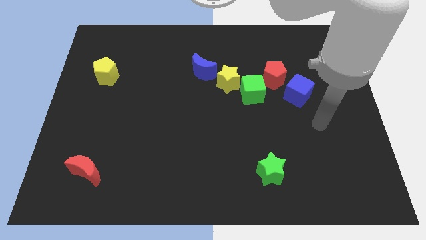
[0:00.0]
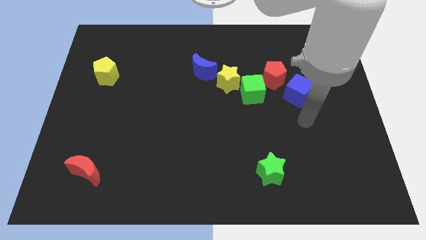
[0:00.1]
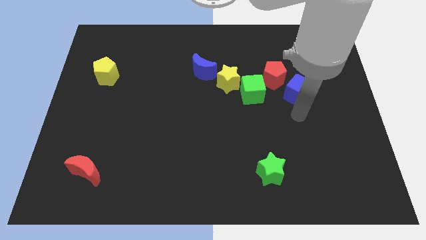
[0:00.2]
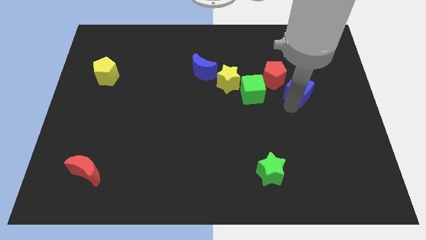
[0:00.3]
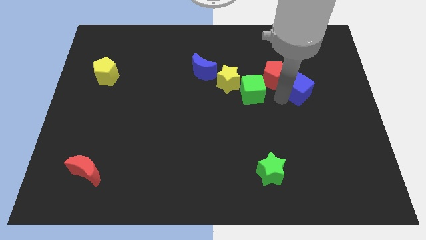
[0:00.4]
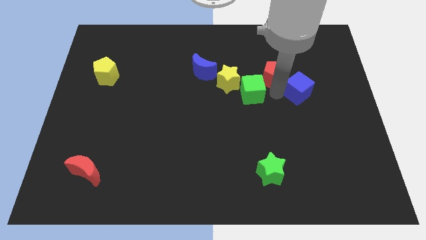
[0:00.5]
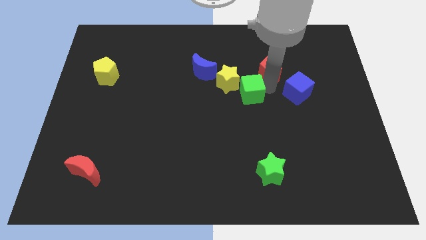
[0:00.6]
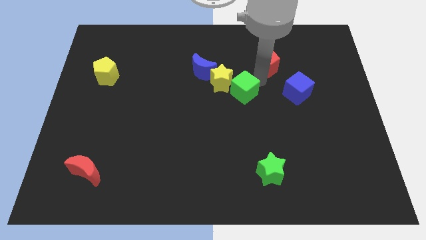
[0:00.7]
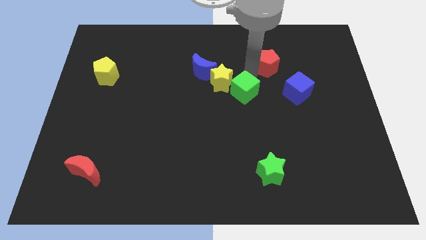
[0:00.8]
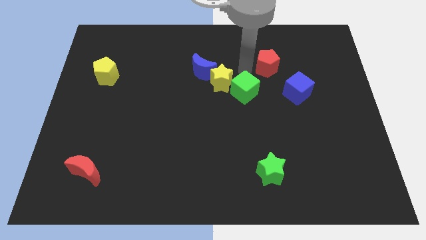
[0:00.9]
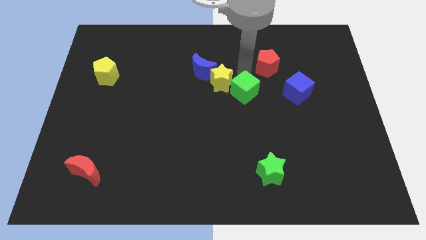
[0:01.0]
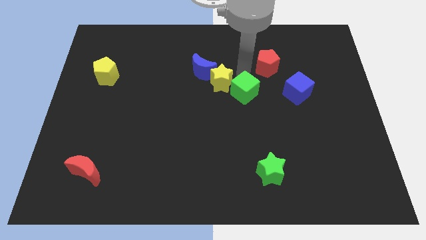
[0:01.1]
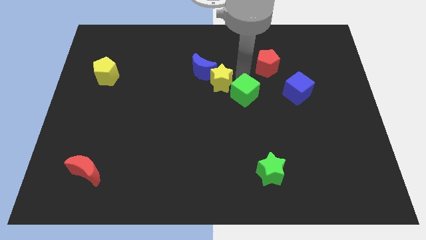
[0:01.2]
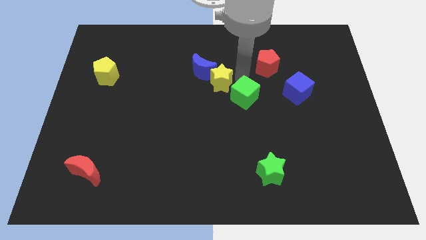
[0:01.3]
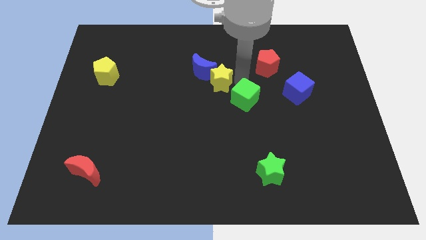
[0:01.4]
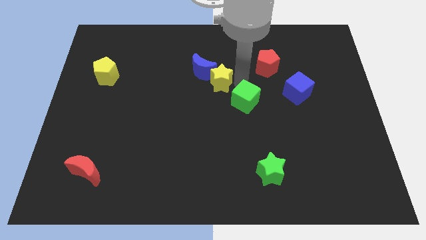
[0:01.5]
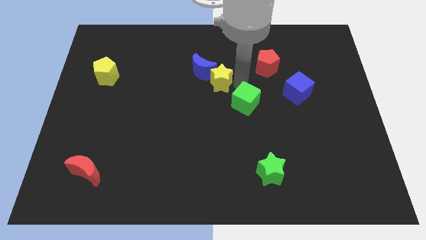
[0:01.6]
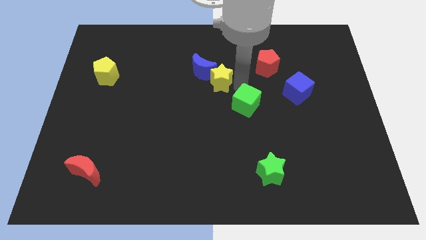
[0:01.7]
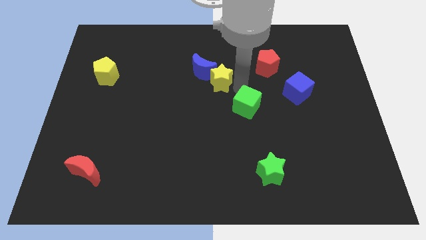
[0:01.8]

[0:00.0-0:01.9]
pull the green cube apart from the yellow star and red pentagon

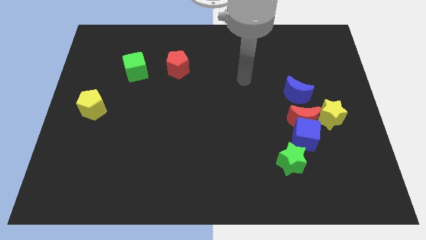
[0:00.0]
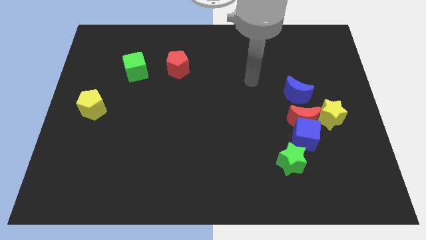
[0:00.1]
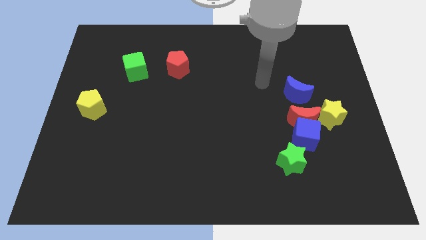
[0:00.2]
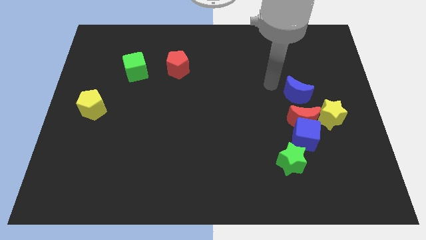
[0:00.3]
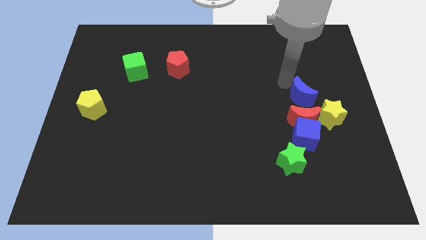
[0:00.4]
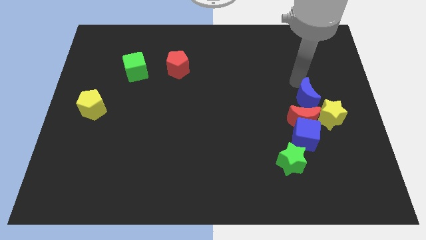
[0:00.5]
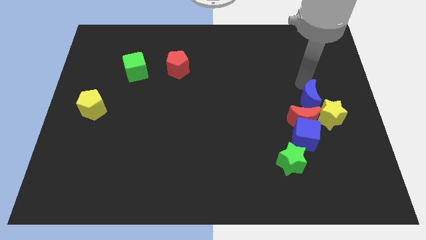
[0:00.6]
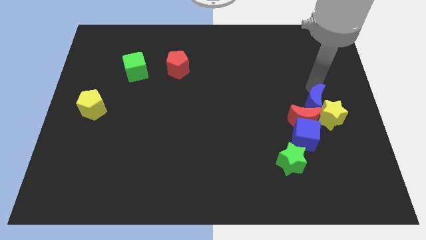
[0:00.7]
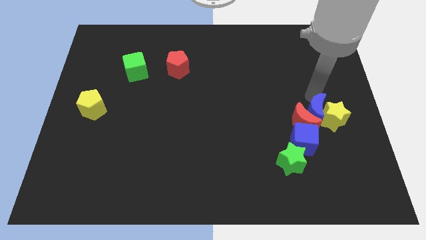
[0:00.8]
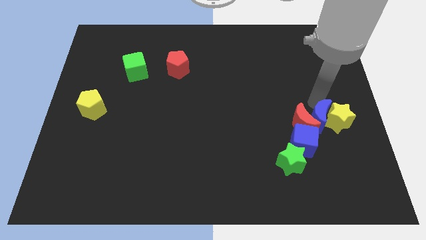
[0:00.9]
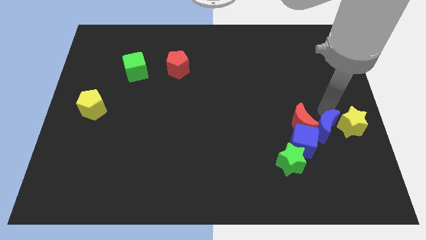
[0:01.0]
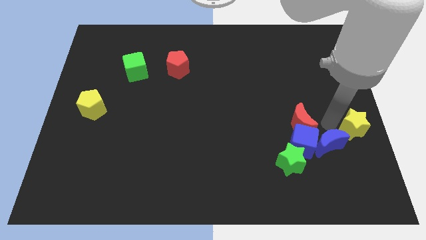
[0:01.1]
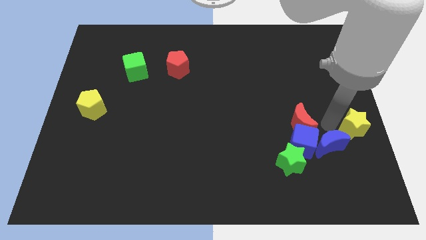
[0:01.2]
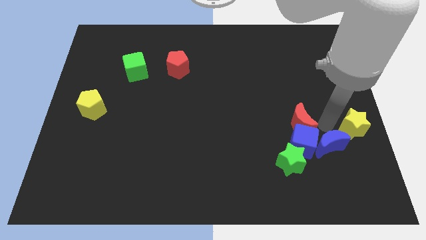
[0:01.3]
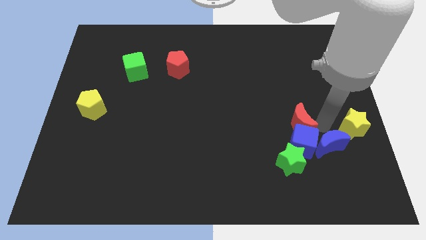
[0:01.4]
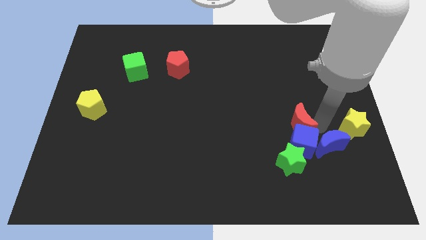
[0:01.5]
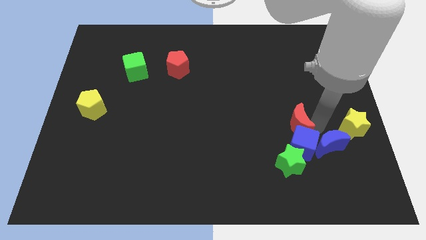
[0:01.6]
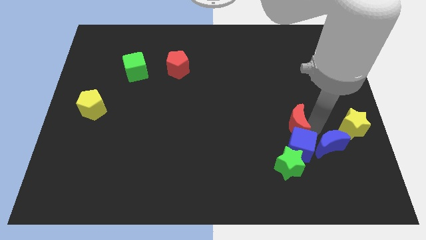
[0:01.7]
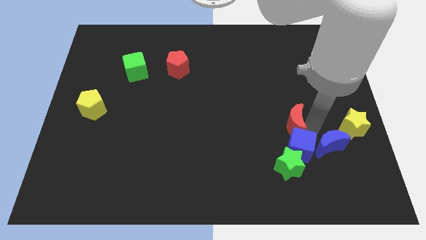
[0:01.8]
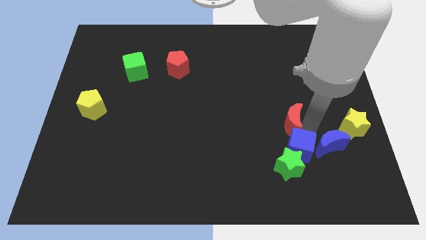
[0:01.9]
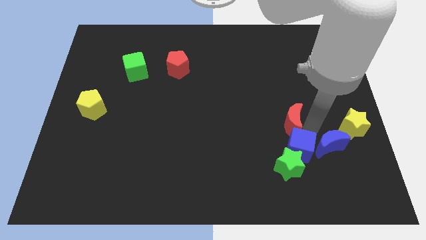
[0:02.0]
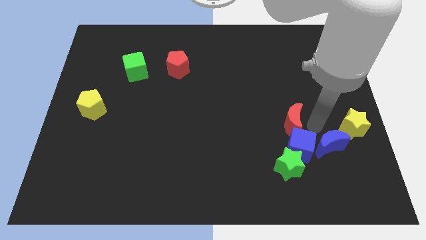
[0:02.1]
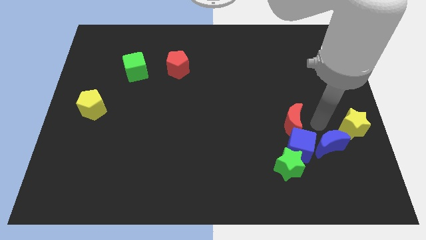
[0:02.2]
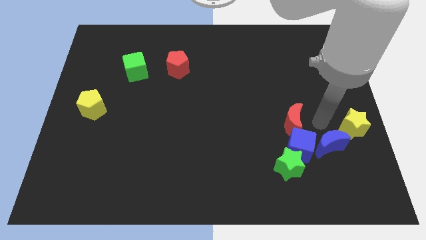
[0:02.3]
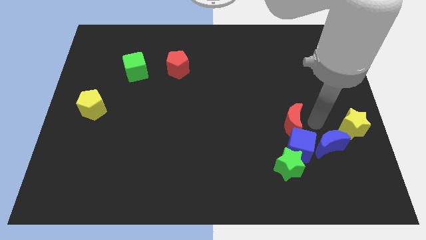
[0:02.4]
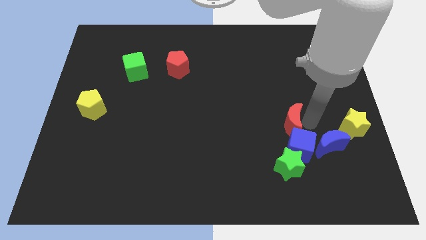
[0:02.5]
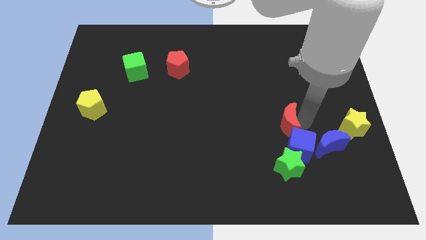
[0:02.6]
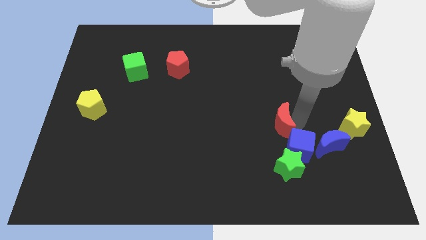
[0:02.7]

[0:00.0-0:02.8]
separate the red moon from the blue cube, yellow star, and blue moon

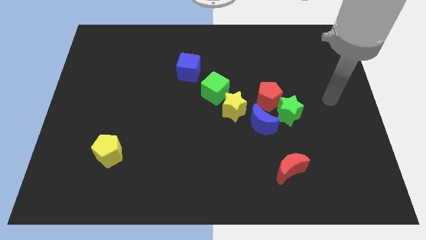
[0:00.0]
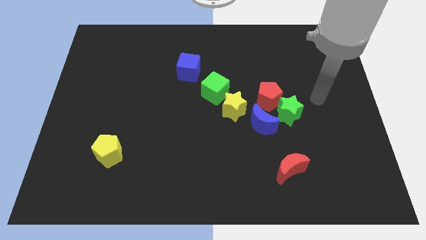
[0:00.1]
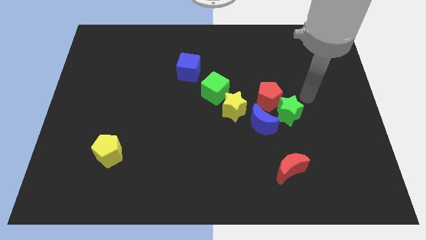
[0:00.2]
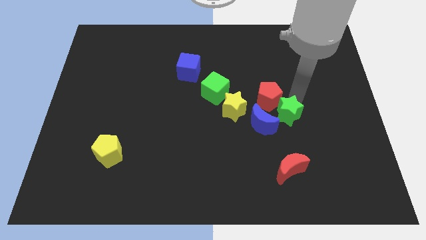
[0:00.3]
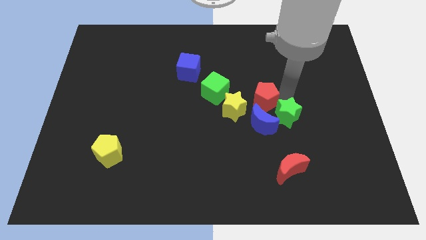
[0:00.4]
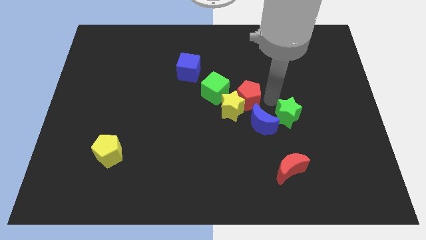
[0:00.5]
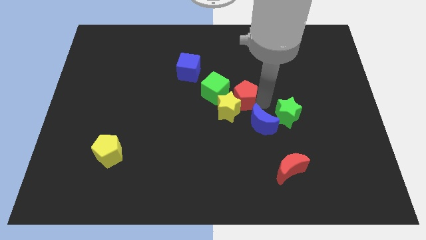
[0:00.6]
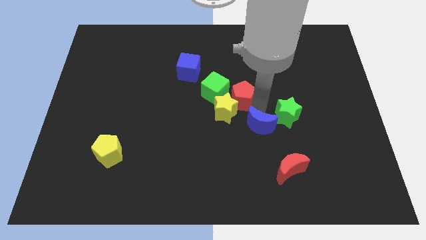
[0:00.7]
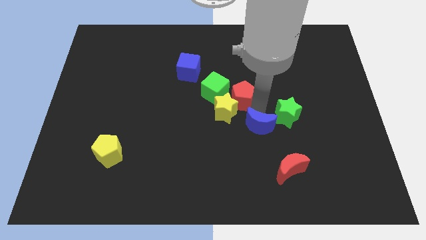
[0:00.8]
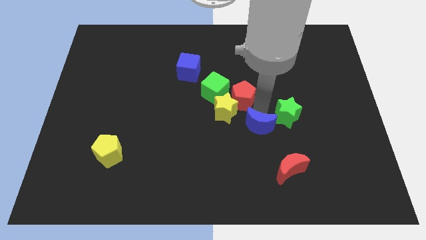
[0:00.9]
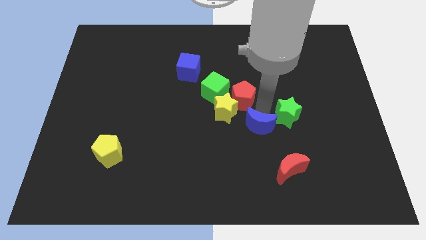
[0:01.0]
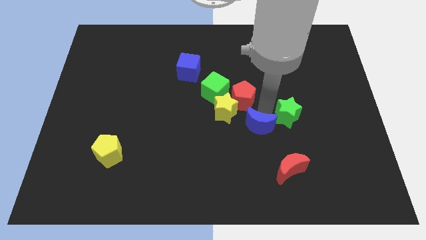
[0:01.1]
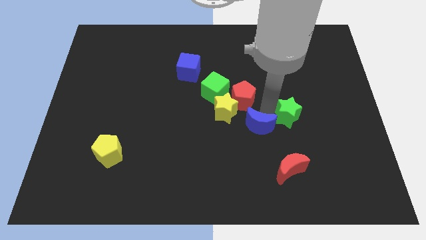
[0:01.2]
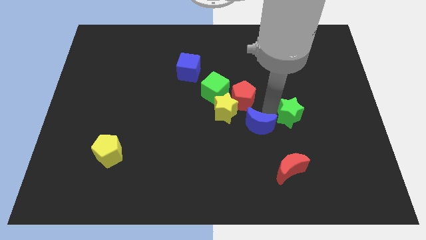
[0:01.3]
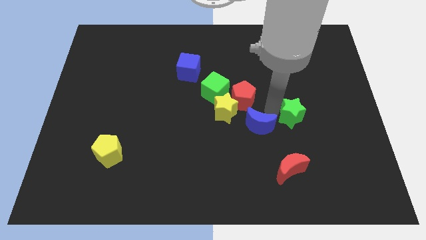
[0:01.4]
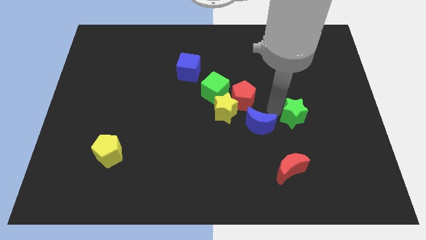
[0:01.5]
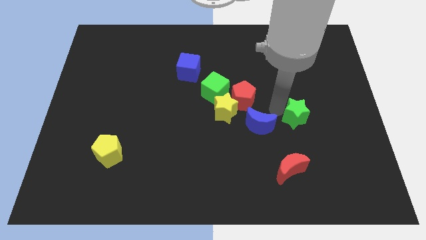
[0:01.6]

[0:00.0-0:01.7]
separate the green star from the red pentagon and blue moon

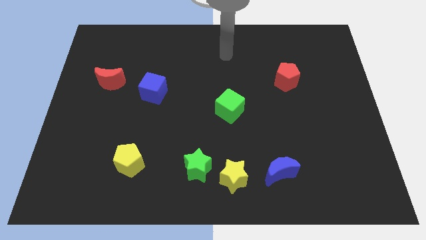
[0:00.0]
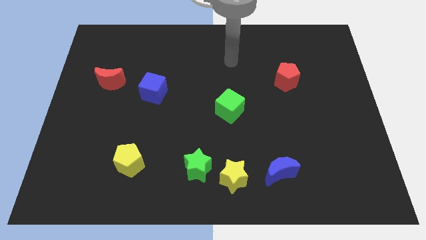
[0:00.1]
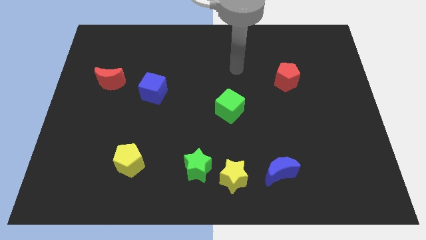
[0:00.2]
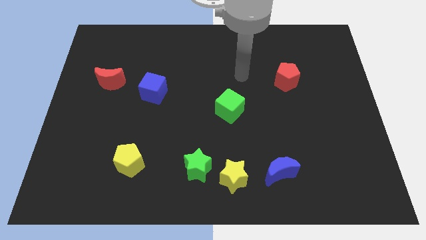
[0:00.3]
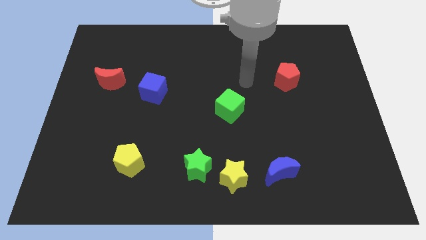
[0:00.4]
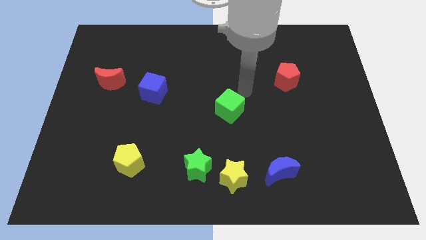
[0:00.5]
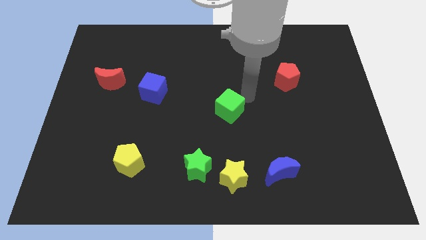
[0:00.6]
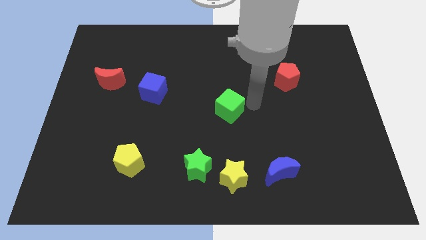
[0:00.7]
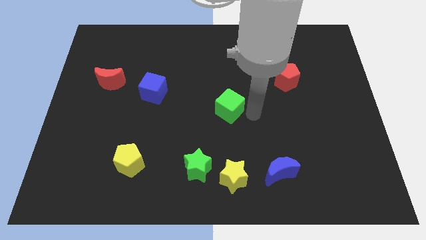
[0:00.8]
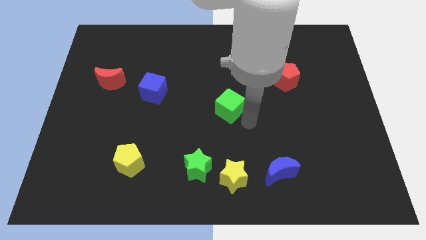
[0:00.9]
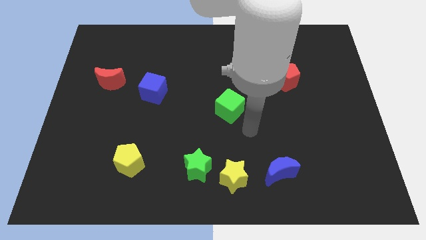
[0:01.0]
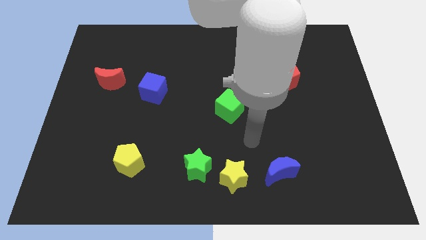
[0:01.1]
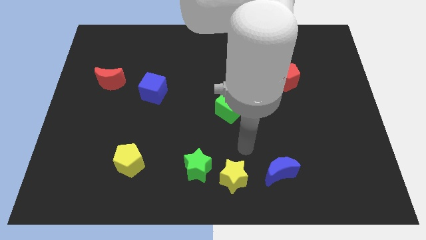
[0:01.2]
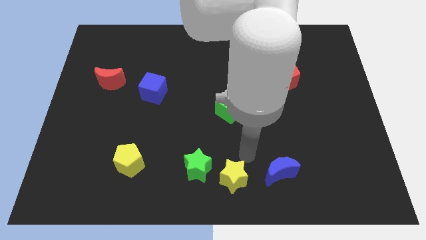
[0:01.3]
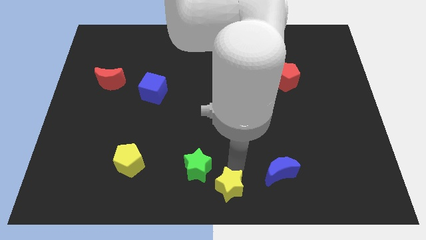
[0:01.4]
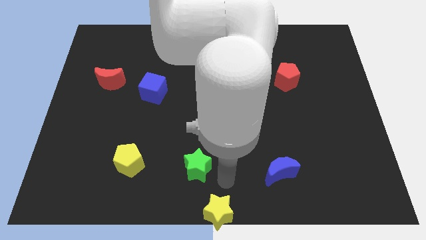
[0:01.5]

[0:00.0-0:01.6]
separate the green star from the yellow star

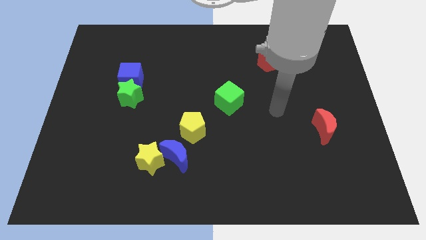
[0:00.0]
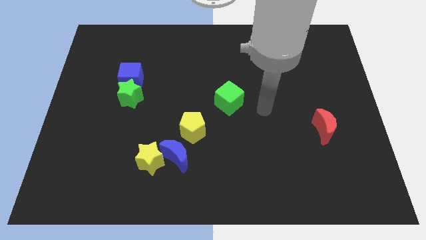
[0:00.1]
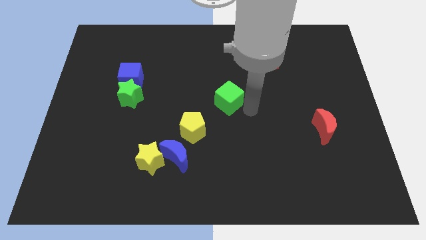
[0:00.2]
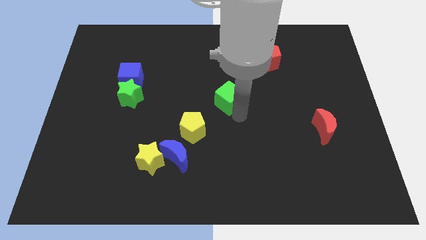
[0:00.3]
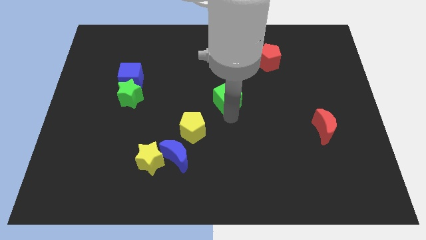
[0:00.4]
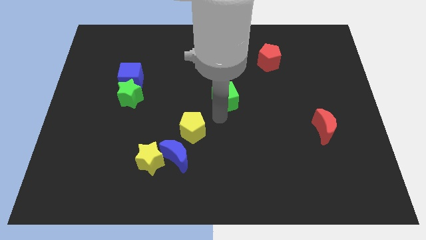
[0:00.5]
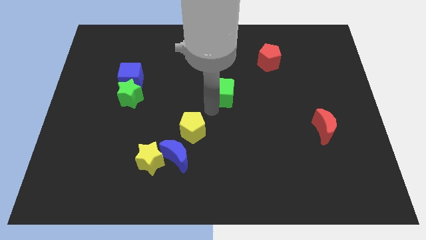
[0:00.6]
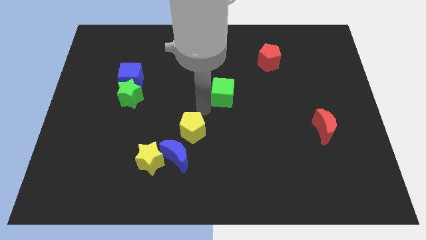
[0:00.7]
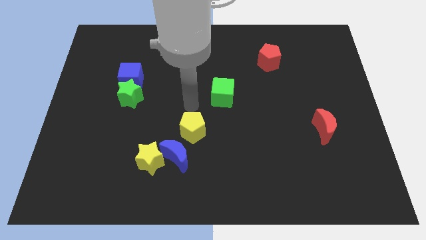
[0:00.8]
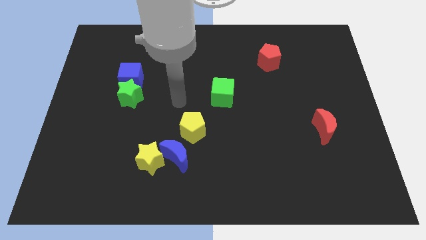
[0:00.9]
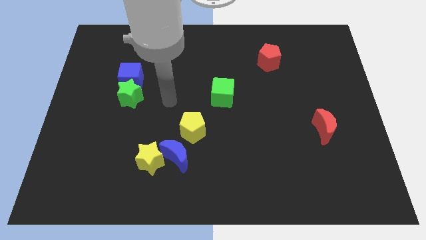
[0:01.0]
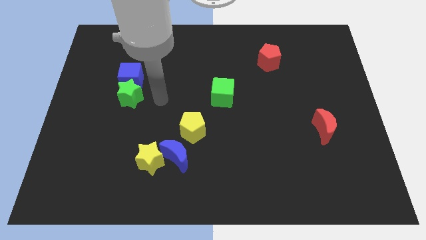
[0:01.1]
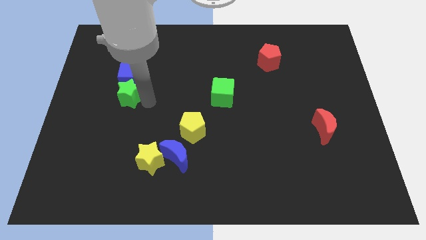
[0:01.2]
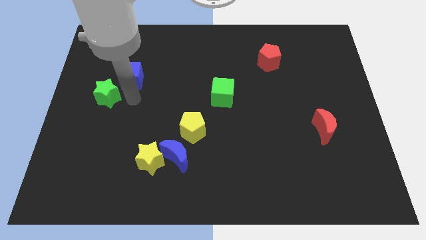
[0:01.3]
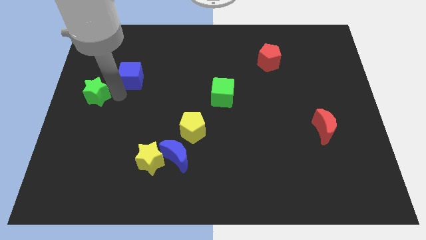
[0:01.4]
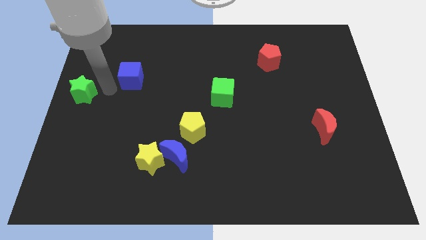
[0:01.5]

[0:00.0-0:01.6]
pull the blue cube apart from the green star
